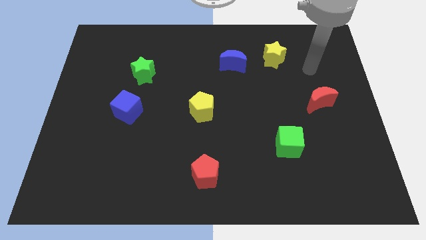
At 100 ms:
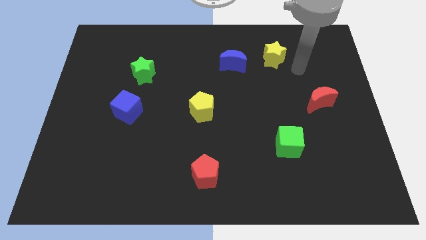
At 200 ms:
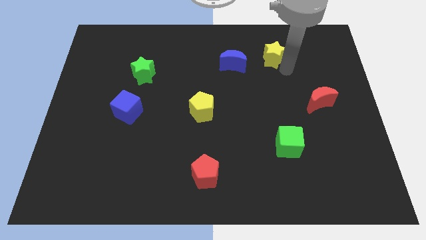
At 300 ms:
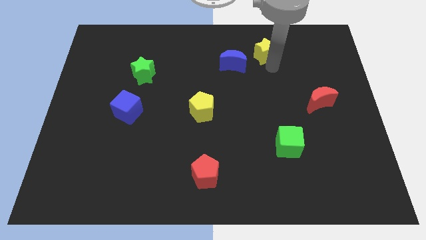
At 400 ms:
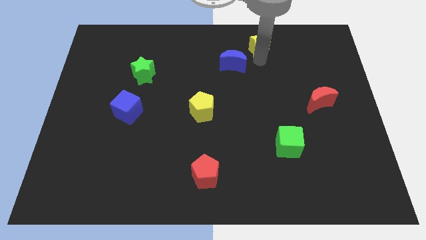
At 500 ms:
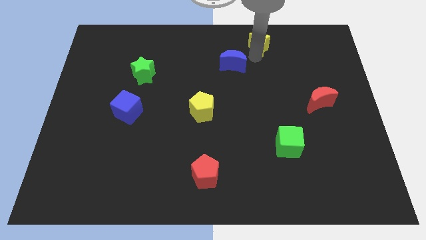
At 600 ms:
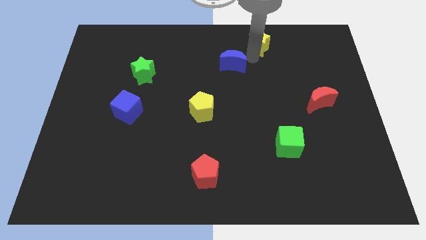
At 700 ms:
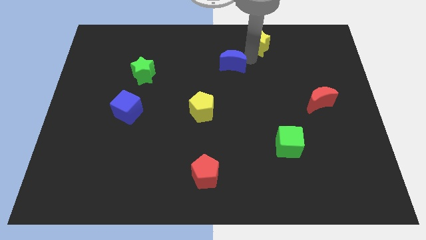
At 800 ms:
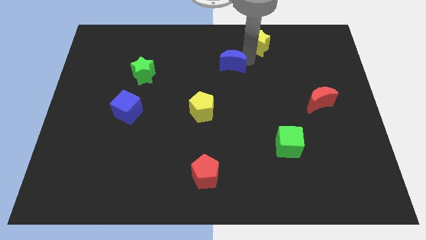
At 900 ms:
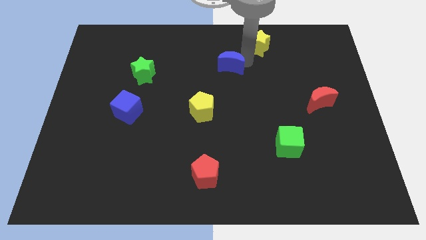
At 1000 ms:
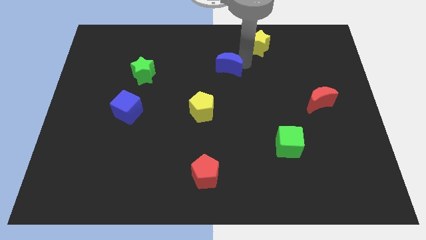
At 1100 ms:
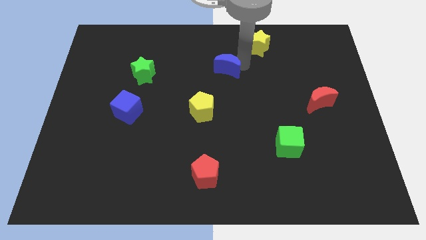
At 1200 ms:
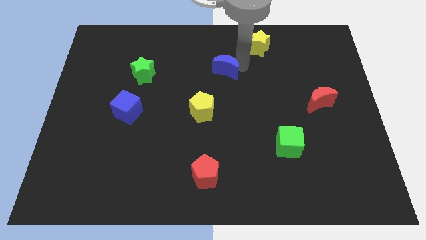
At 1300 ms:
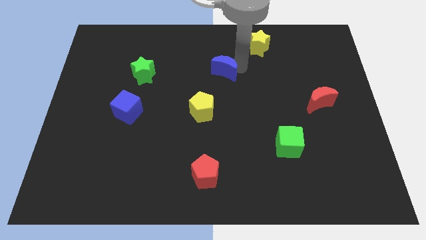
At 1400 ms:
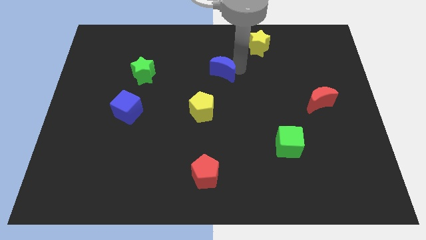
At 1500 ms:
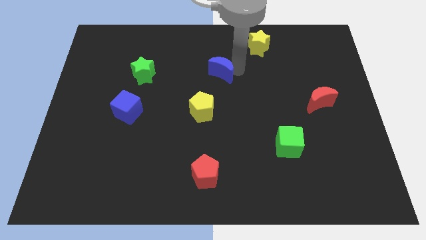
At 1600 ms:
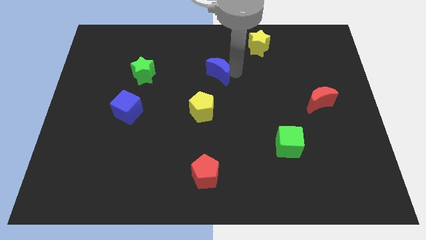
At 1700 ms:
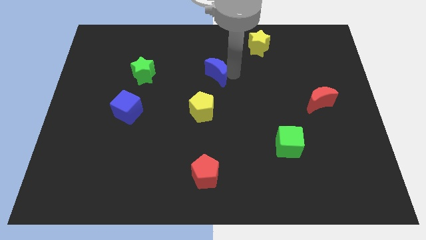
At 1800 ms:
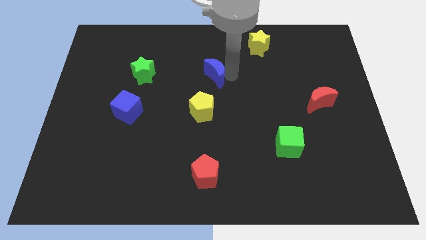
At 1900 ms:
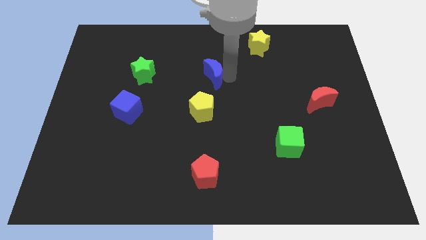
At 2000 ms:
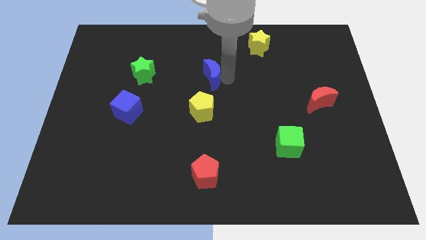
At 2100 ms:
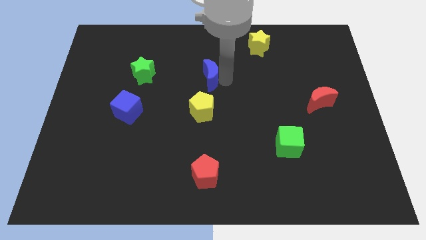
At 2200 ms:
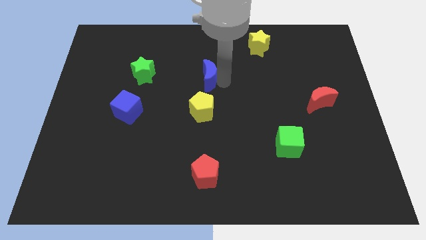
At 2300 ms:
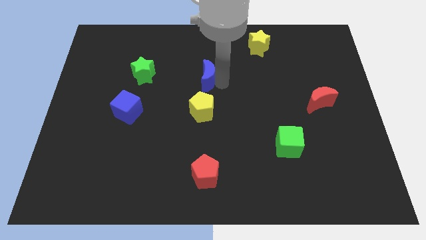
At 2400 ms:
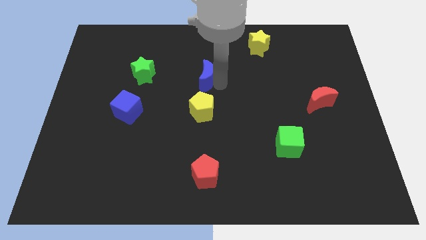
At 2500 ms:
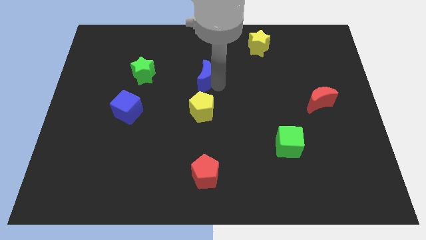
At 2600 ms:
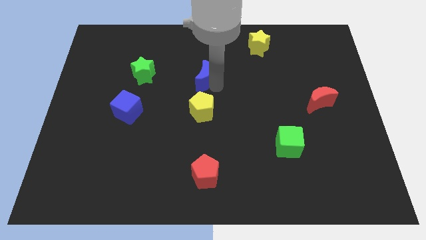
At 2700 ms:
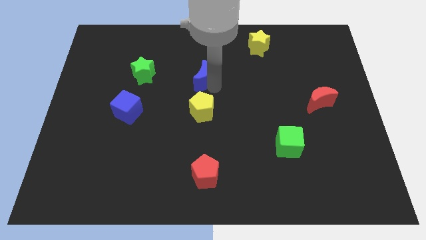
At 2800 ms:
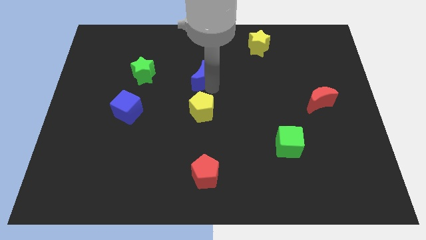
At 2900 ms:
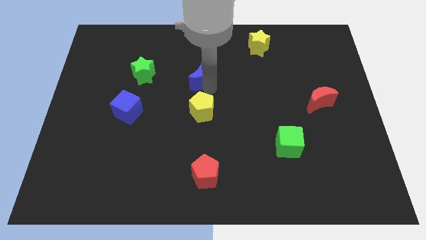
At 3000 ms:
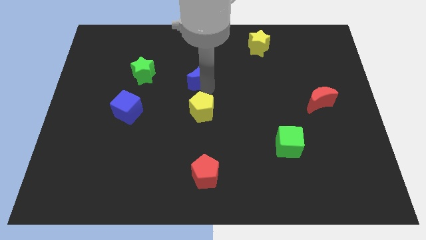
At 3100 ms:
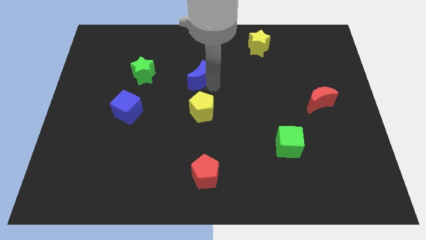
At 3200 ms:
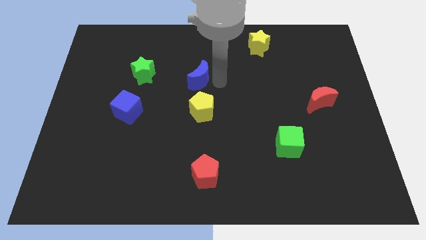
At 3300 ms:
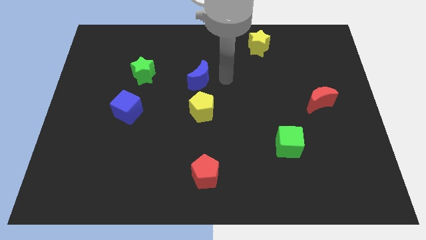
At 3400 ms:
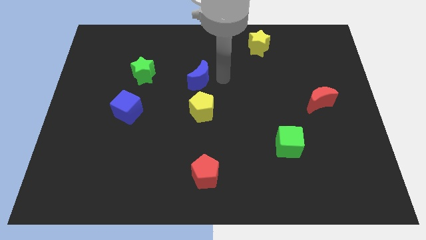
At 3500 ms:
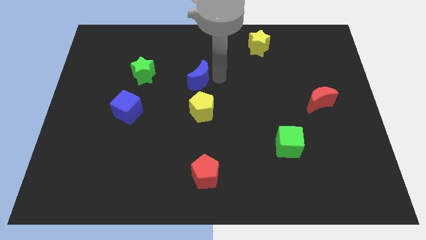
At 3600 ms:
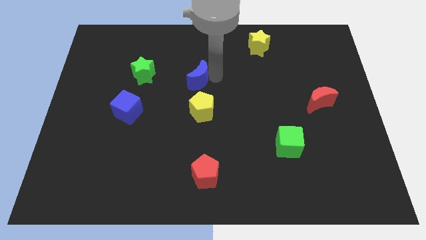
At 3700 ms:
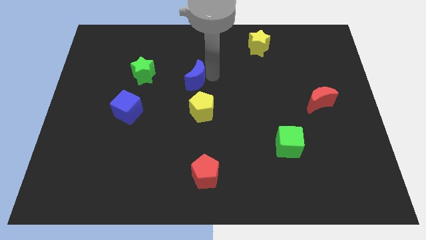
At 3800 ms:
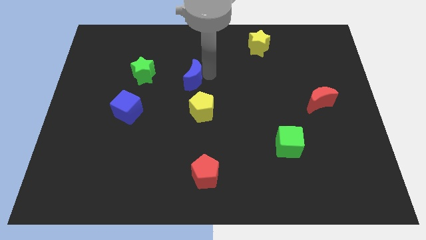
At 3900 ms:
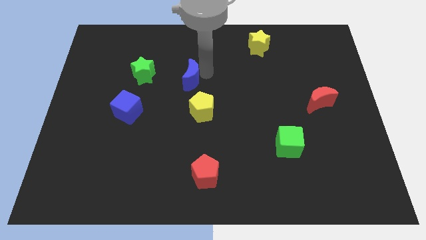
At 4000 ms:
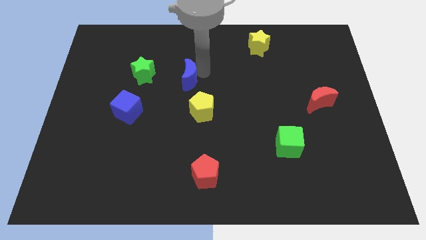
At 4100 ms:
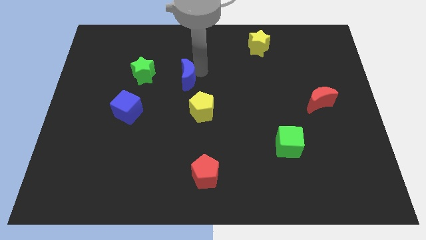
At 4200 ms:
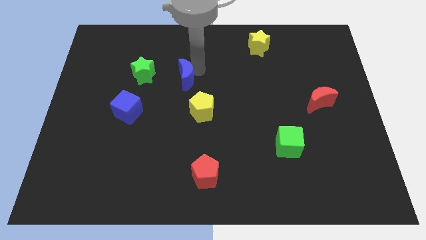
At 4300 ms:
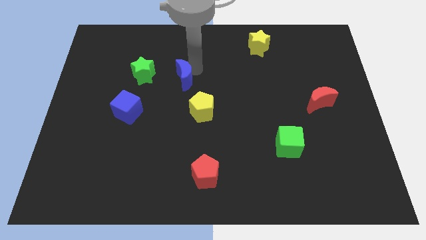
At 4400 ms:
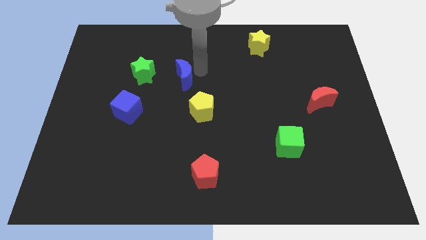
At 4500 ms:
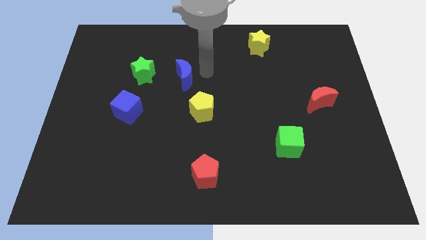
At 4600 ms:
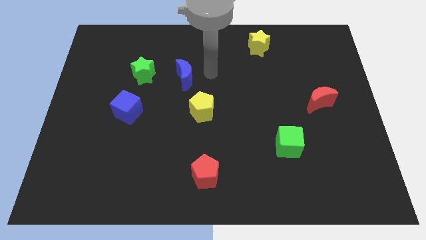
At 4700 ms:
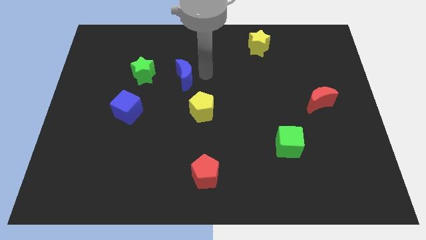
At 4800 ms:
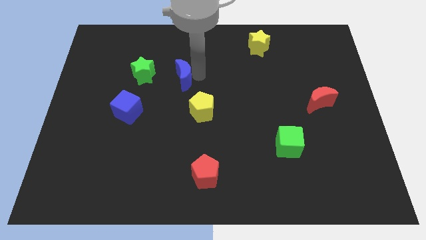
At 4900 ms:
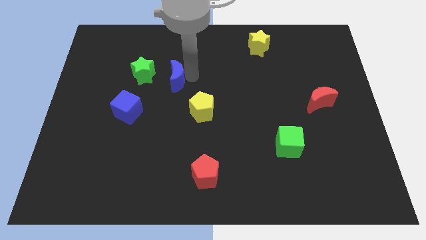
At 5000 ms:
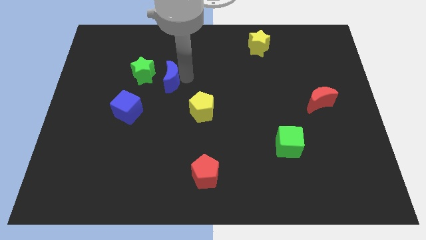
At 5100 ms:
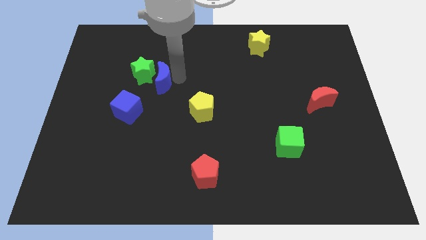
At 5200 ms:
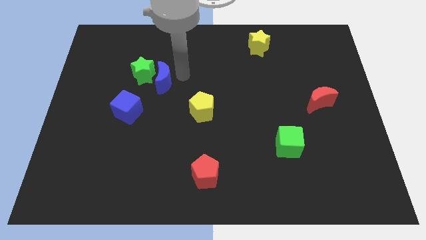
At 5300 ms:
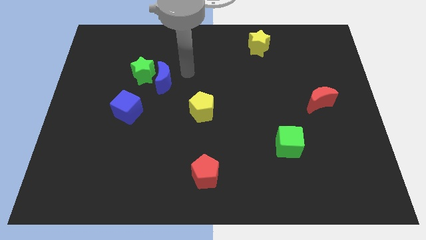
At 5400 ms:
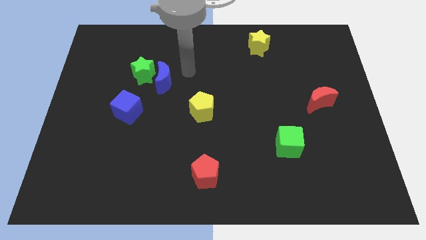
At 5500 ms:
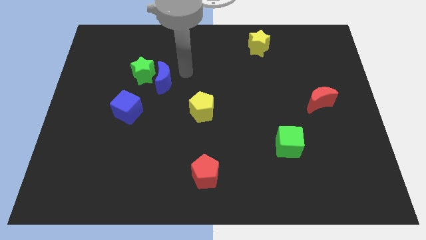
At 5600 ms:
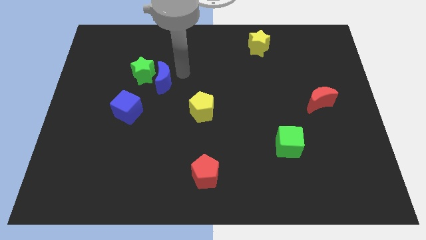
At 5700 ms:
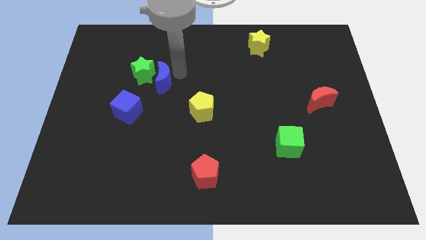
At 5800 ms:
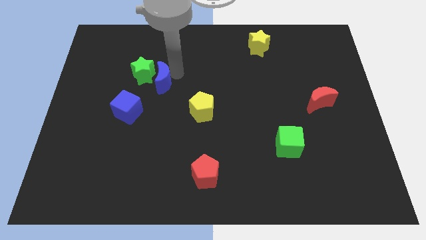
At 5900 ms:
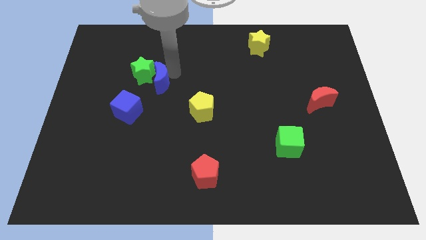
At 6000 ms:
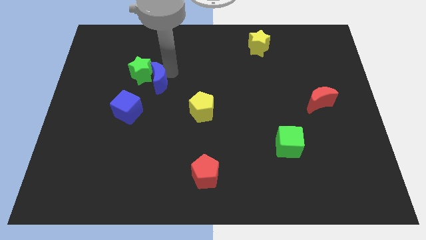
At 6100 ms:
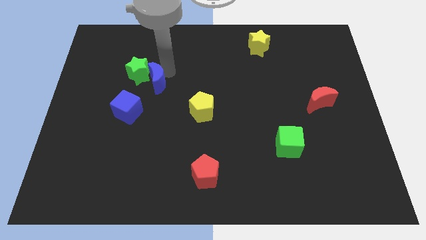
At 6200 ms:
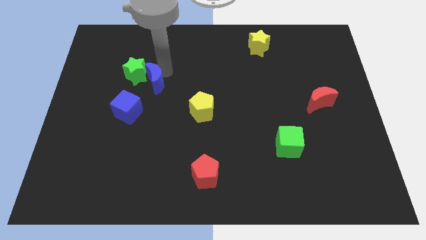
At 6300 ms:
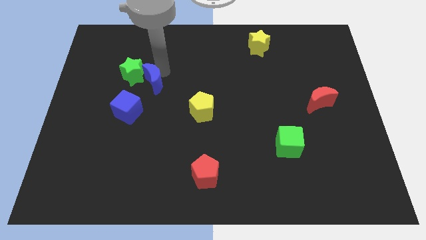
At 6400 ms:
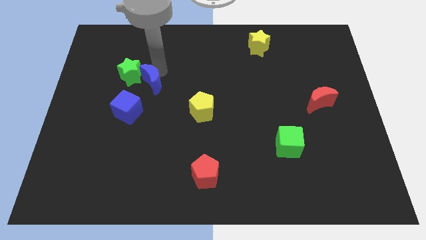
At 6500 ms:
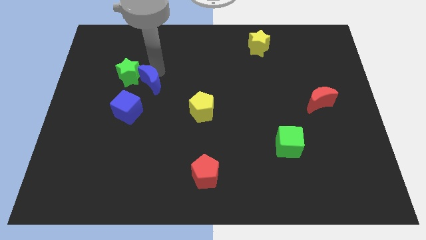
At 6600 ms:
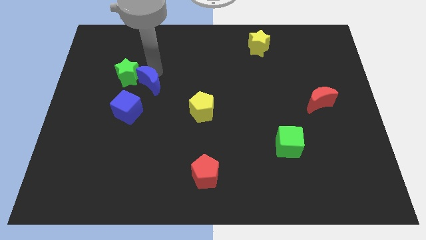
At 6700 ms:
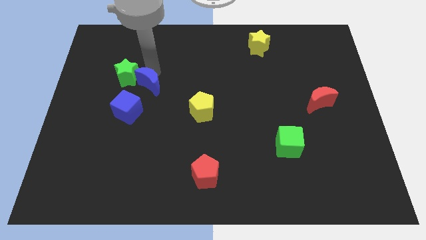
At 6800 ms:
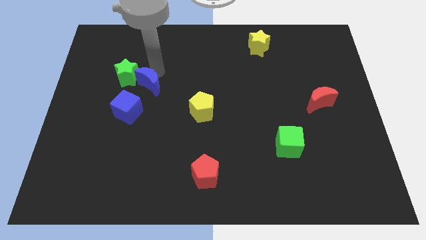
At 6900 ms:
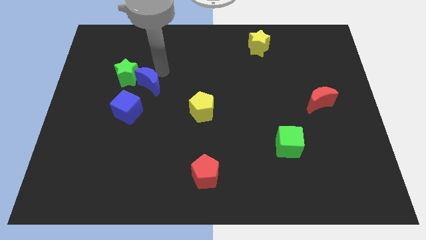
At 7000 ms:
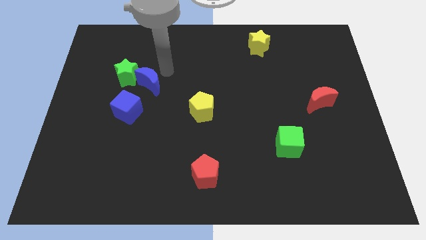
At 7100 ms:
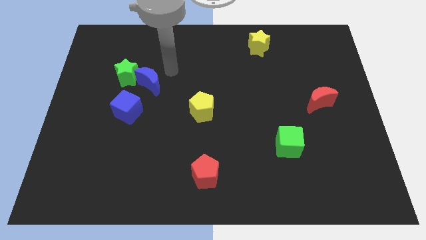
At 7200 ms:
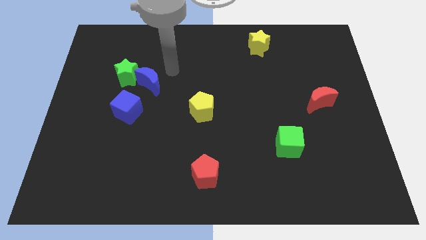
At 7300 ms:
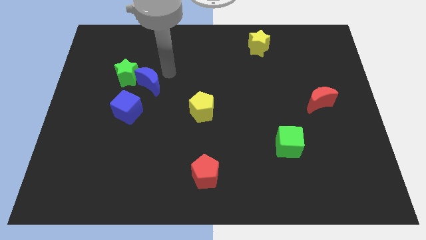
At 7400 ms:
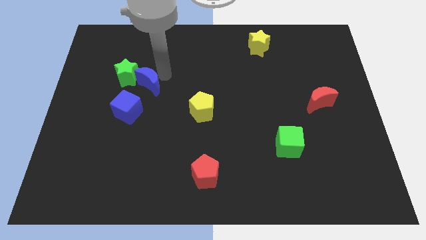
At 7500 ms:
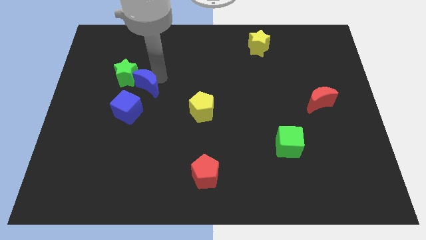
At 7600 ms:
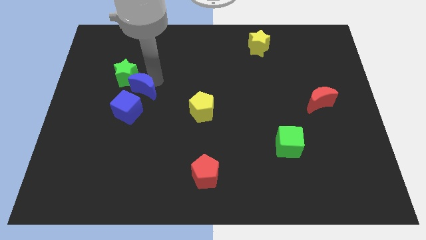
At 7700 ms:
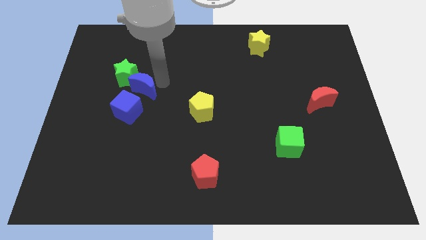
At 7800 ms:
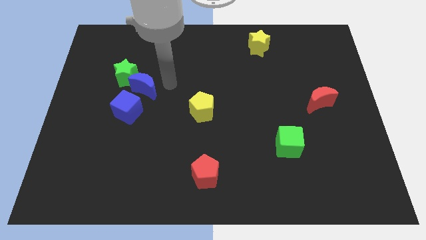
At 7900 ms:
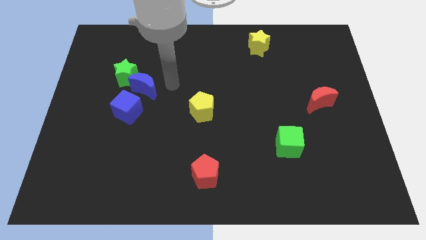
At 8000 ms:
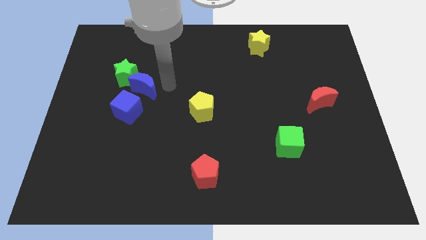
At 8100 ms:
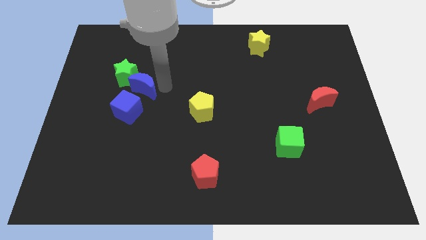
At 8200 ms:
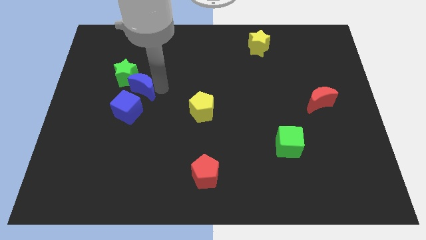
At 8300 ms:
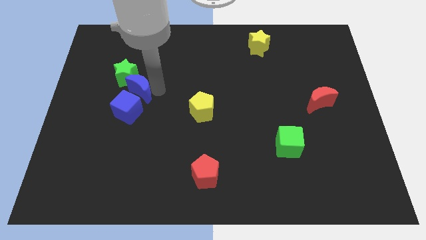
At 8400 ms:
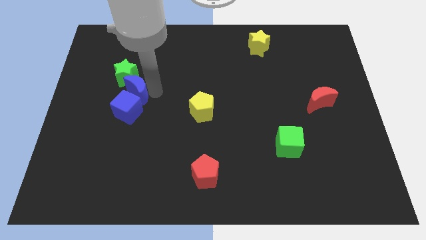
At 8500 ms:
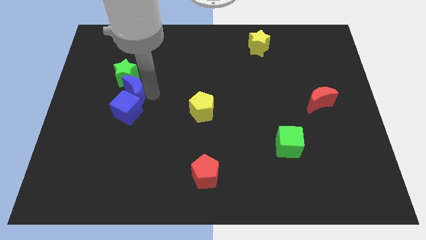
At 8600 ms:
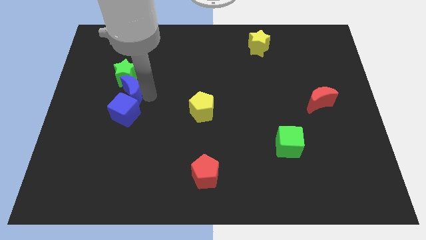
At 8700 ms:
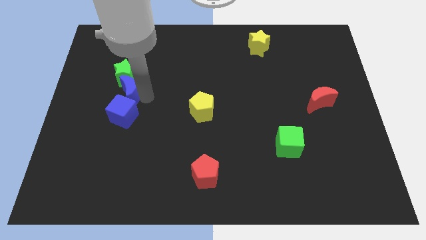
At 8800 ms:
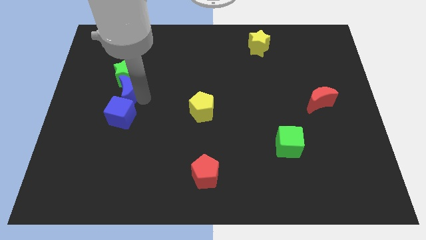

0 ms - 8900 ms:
move the blue moon to the bottom left side of the green star
